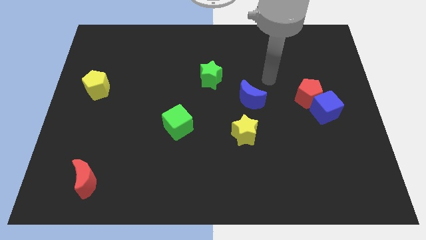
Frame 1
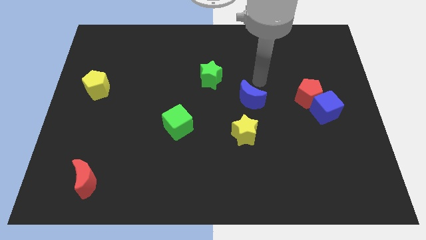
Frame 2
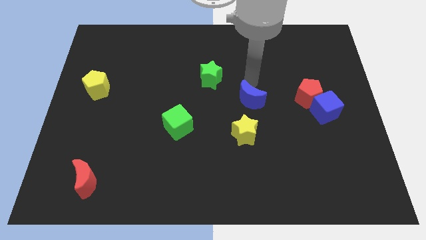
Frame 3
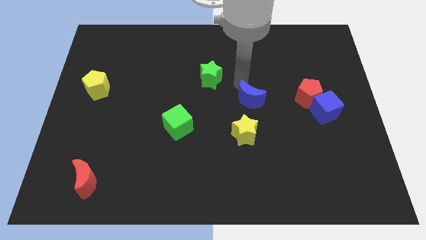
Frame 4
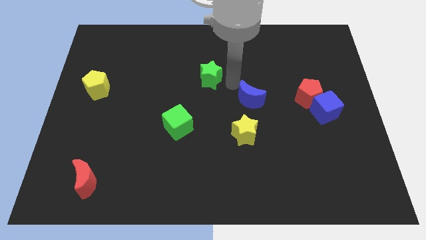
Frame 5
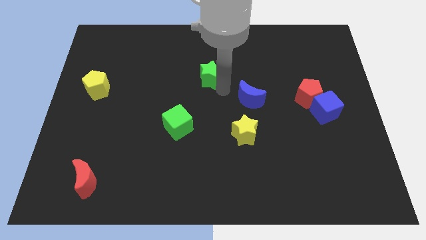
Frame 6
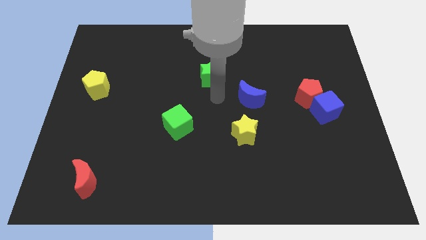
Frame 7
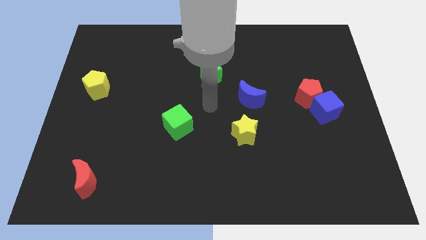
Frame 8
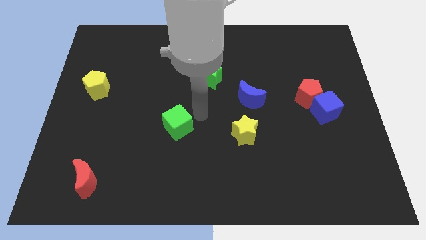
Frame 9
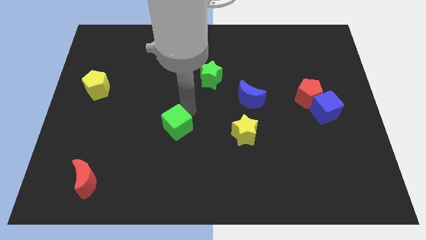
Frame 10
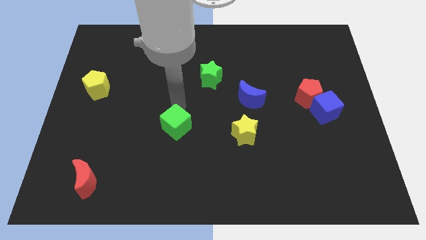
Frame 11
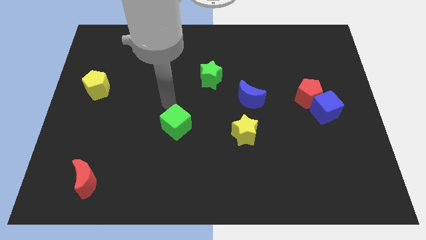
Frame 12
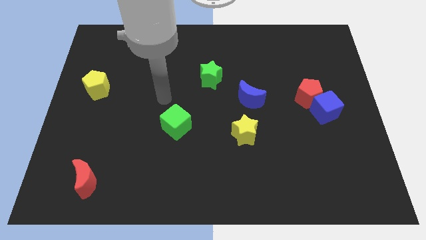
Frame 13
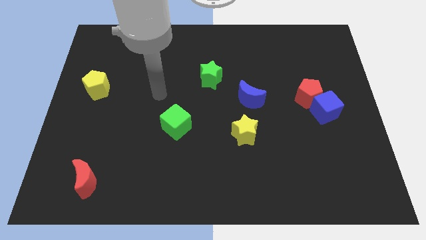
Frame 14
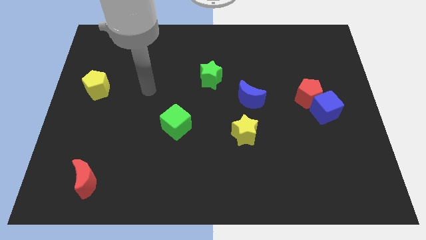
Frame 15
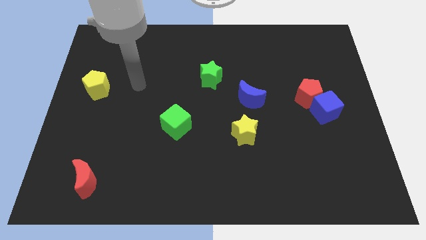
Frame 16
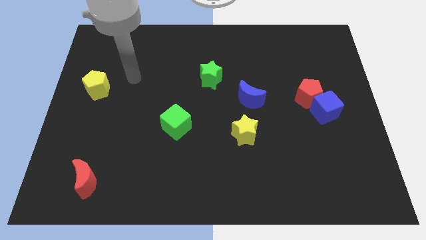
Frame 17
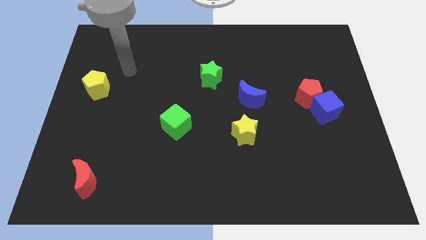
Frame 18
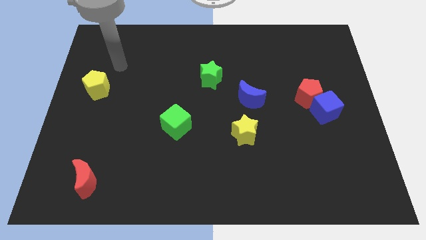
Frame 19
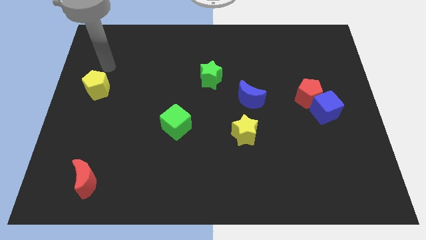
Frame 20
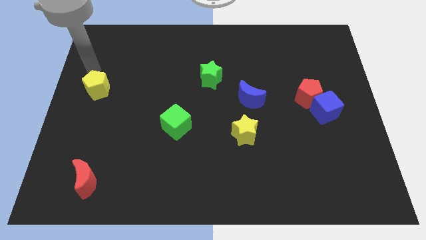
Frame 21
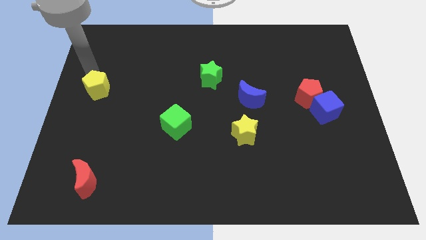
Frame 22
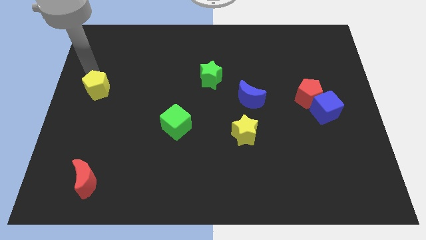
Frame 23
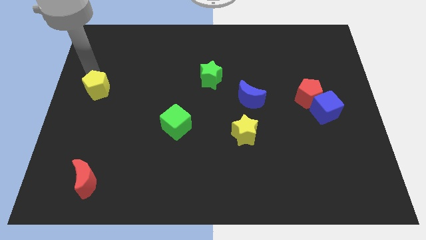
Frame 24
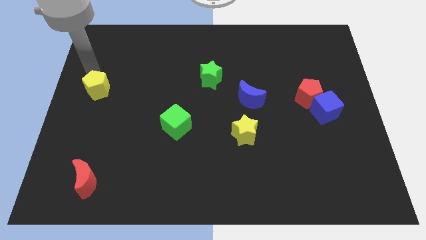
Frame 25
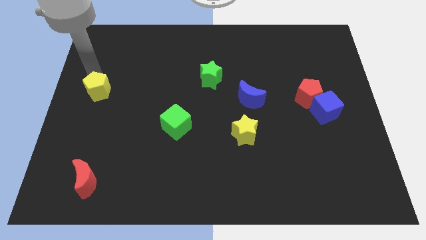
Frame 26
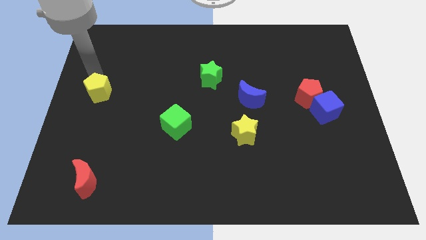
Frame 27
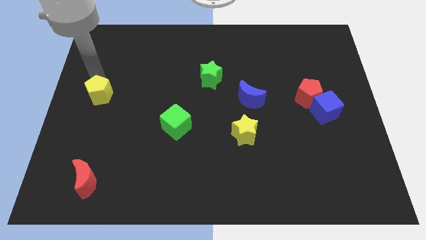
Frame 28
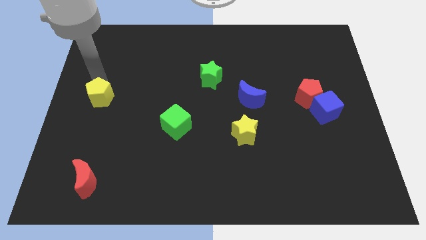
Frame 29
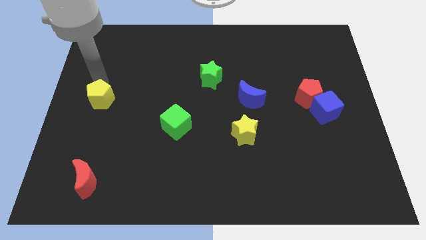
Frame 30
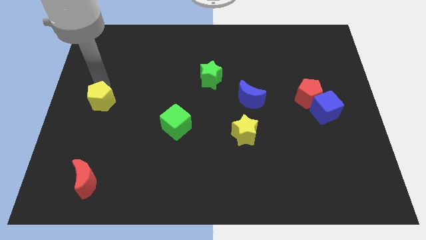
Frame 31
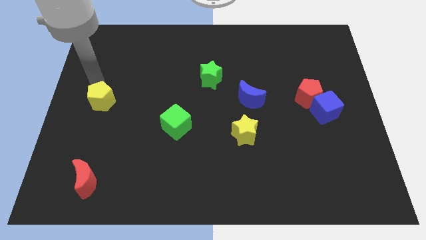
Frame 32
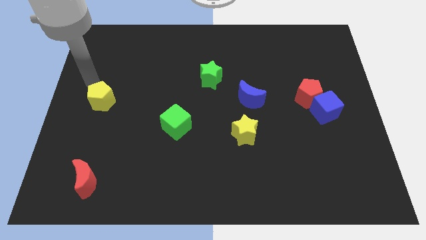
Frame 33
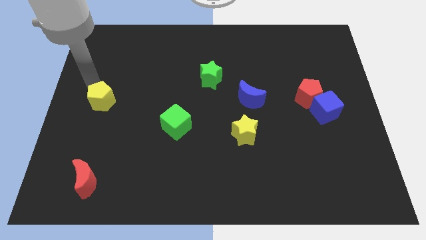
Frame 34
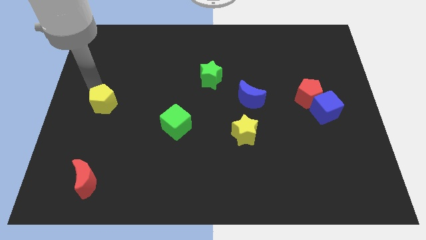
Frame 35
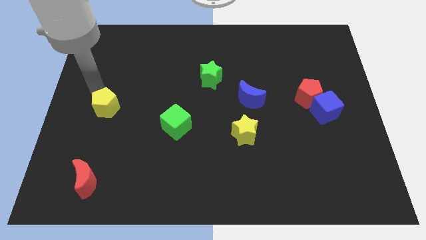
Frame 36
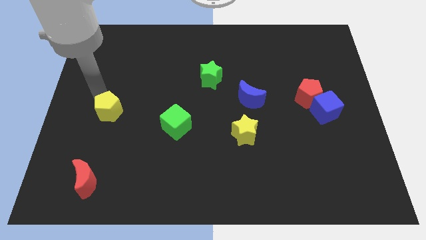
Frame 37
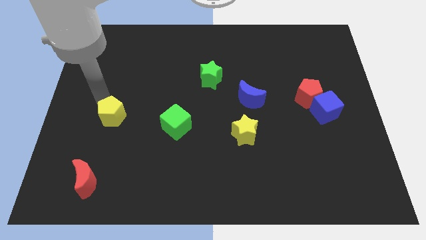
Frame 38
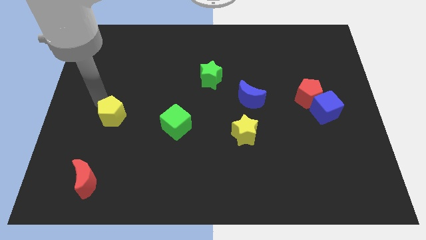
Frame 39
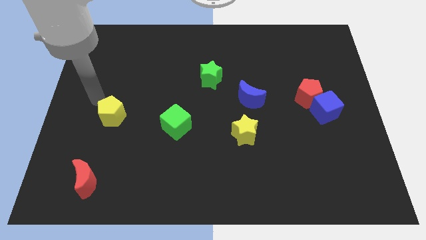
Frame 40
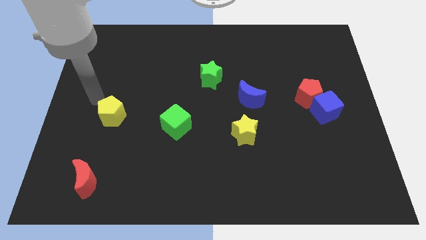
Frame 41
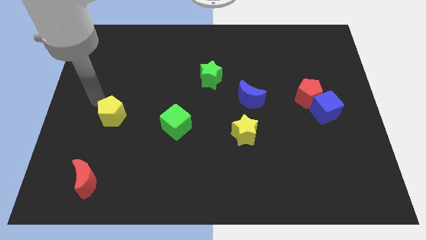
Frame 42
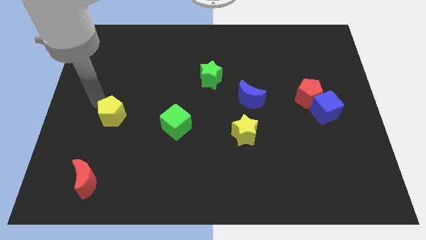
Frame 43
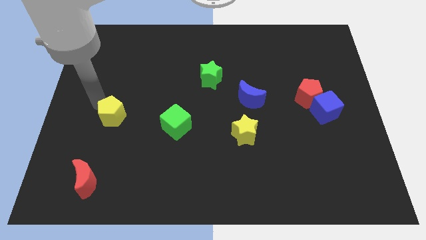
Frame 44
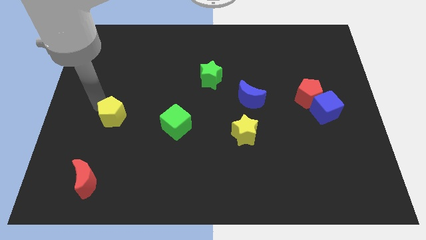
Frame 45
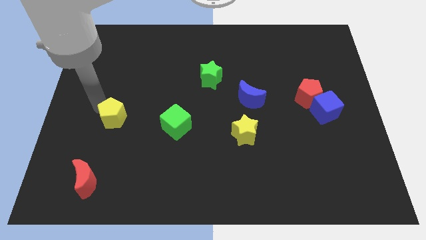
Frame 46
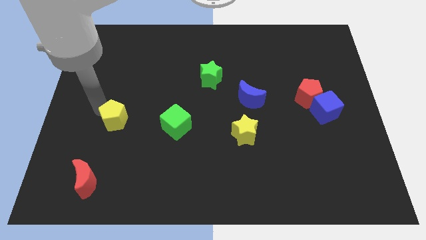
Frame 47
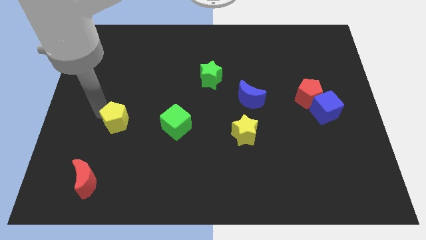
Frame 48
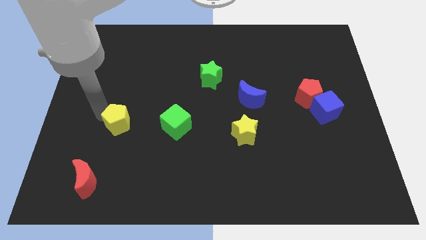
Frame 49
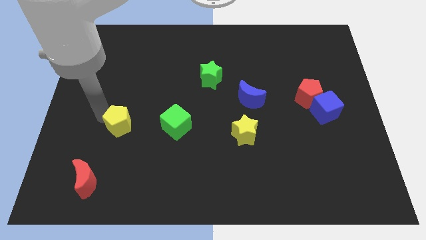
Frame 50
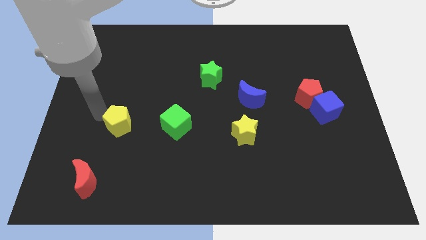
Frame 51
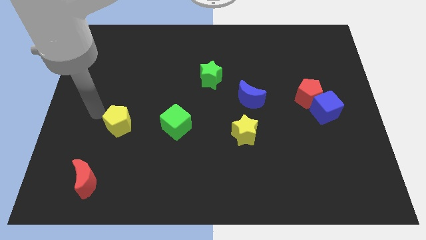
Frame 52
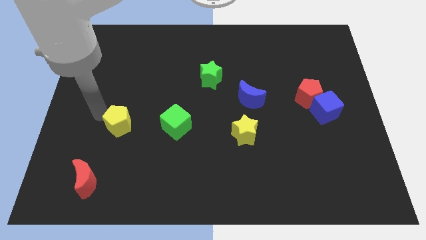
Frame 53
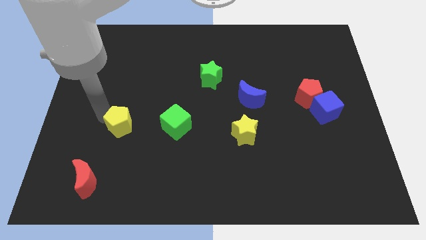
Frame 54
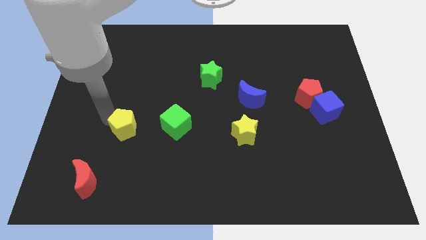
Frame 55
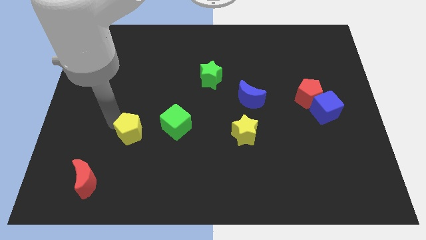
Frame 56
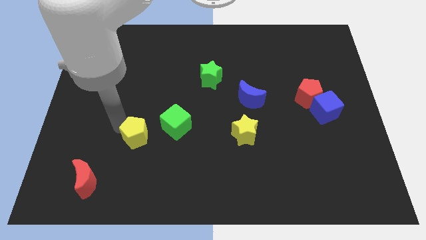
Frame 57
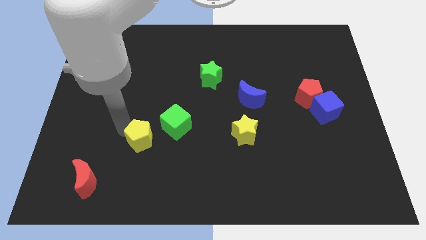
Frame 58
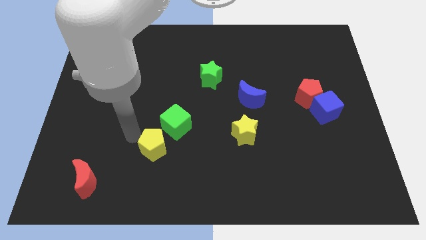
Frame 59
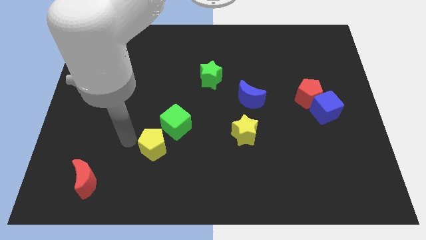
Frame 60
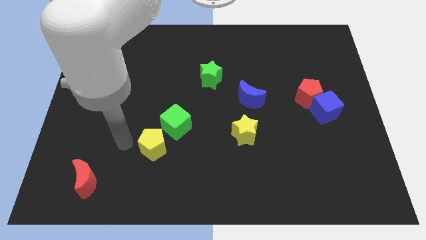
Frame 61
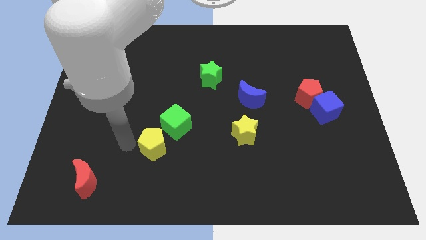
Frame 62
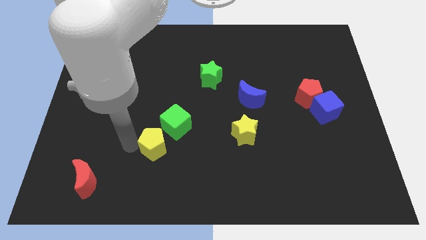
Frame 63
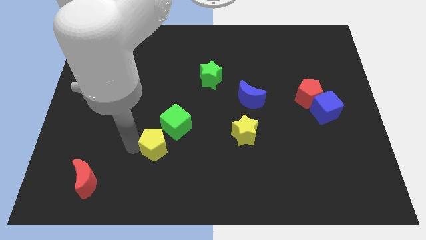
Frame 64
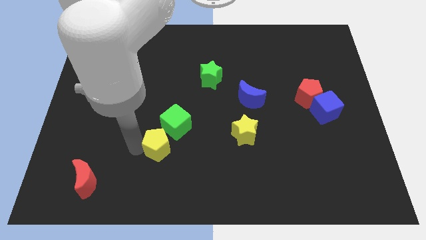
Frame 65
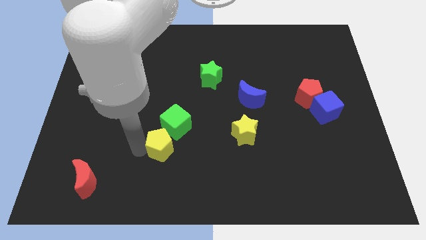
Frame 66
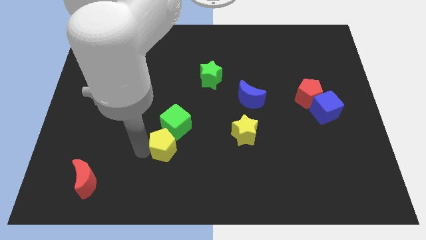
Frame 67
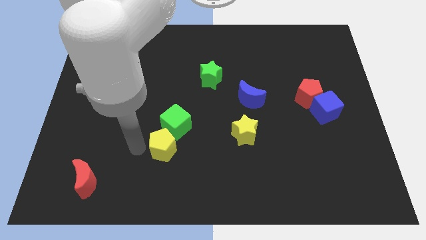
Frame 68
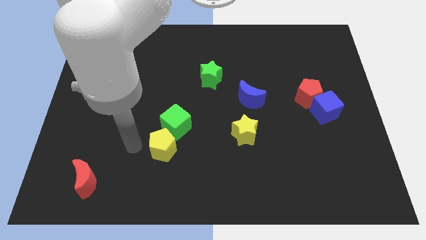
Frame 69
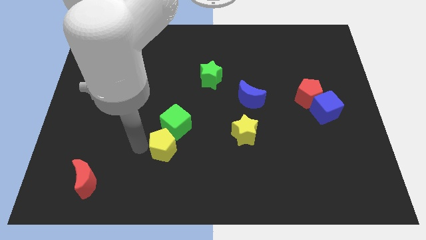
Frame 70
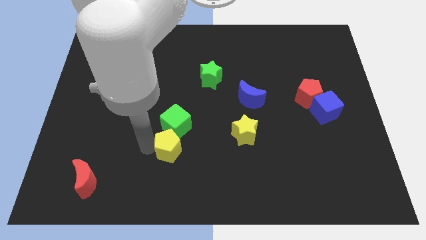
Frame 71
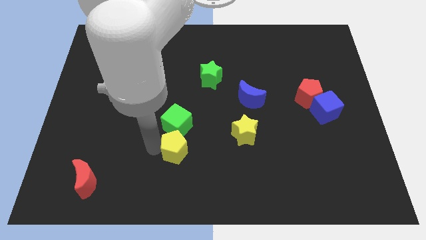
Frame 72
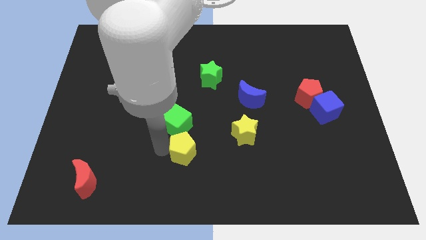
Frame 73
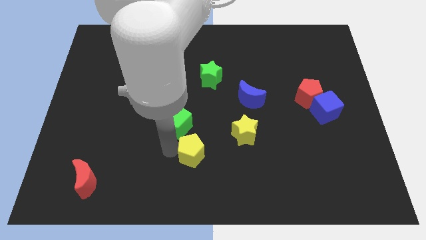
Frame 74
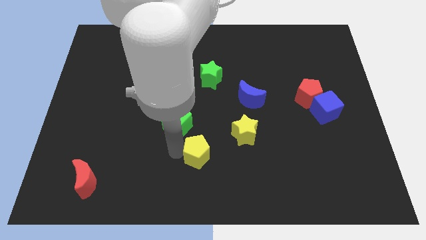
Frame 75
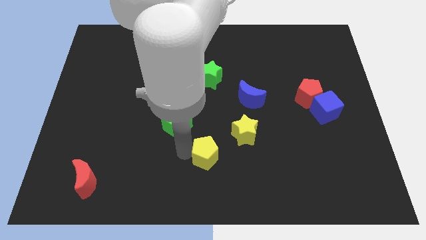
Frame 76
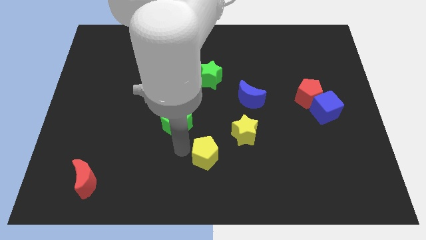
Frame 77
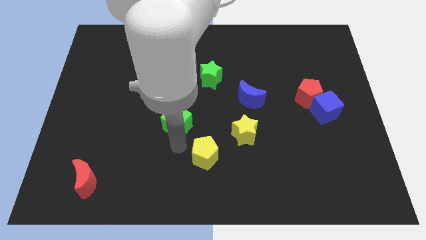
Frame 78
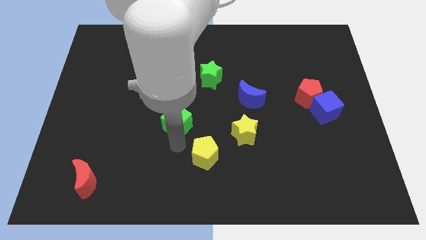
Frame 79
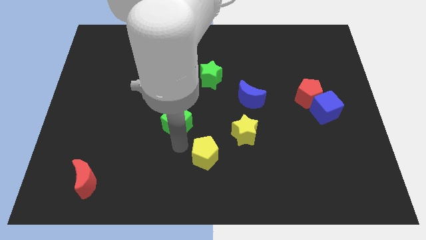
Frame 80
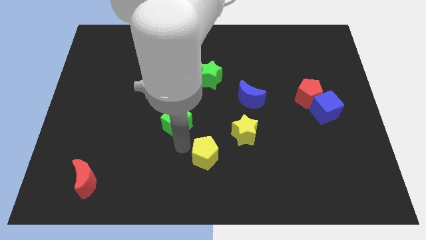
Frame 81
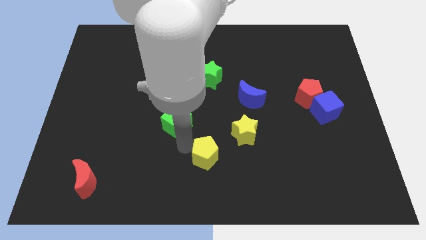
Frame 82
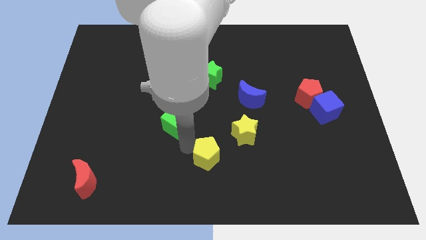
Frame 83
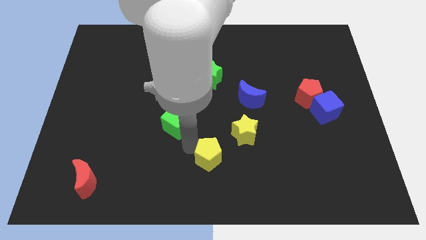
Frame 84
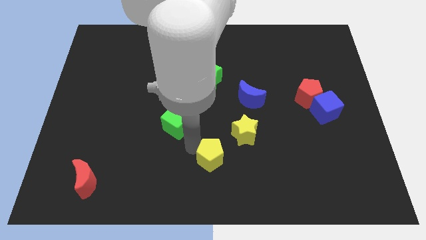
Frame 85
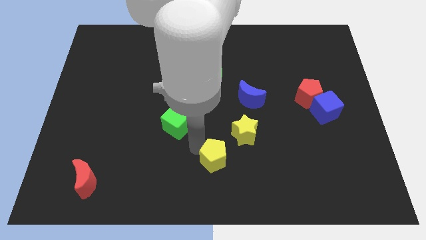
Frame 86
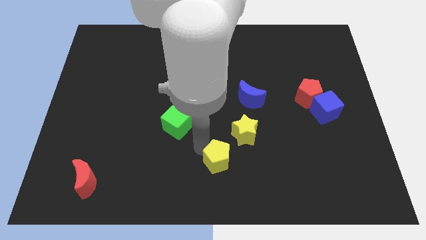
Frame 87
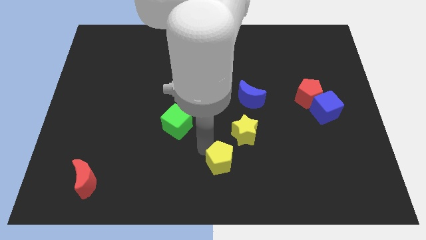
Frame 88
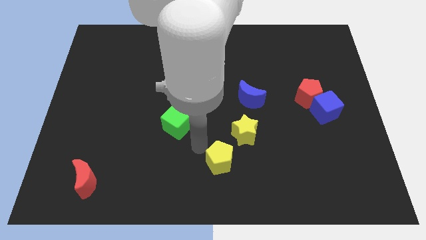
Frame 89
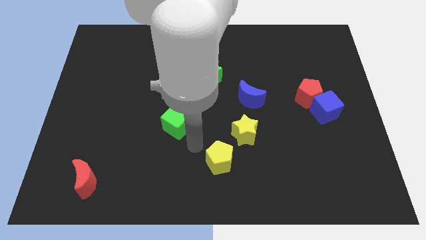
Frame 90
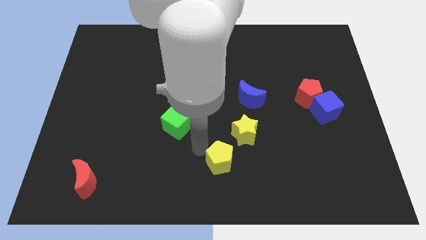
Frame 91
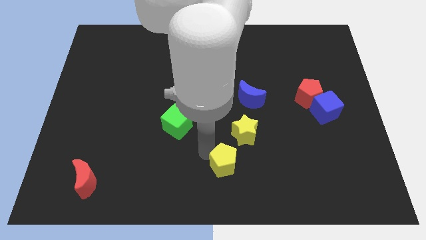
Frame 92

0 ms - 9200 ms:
put the yellow pentagon to the bottom side of the yellow star
